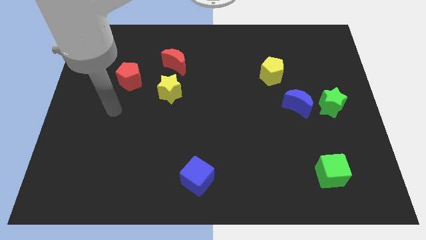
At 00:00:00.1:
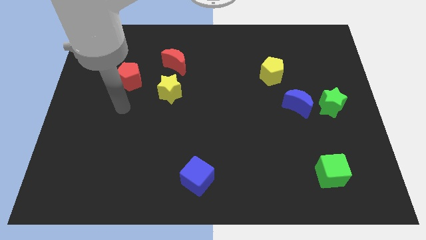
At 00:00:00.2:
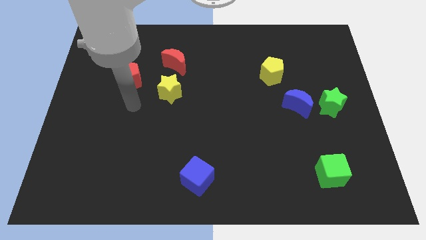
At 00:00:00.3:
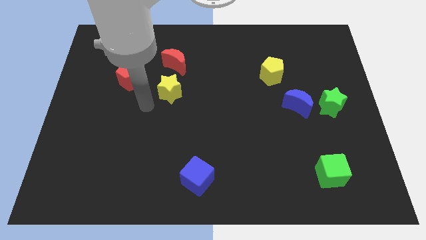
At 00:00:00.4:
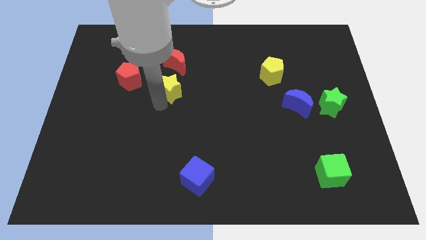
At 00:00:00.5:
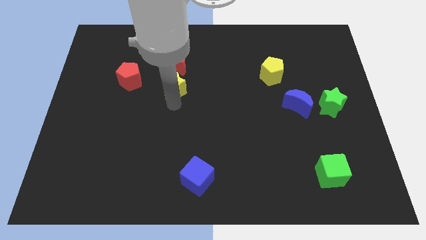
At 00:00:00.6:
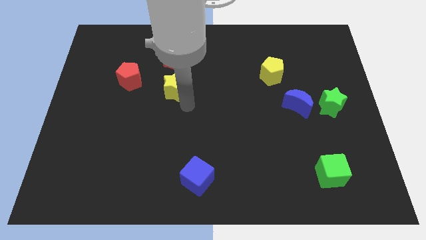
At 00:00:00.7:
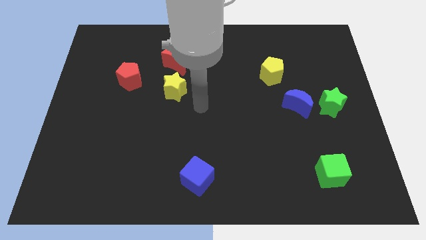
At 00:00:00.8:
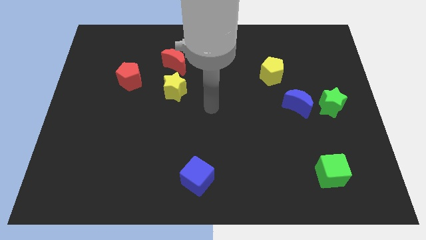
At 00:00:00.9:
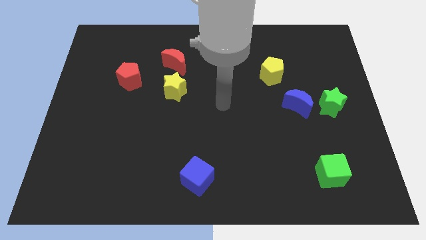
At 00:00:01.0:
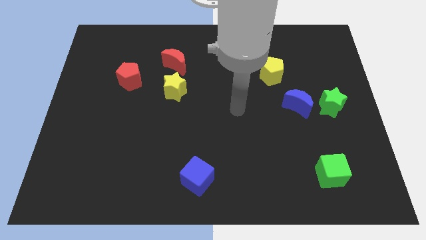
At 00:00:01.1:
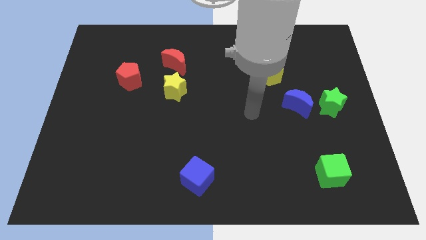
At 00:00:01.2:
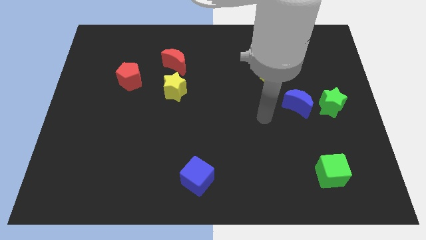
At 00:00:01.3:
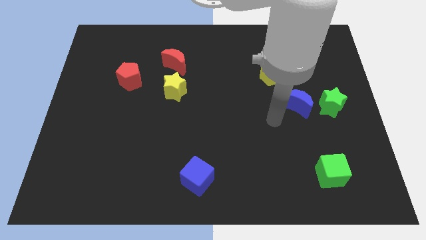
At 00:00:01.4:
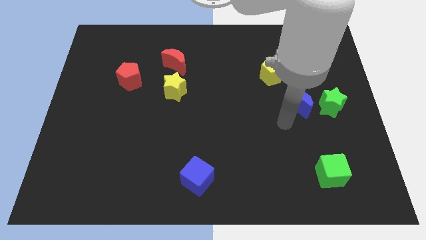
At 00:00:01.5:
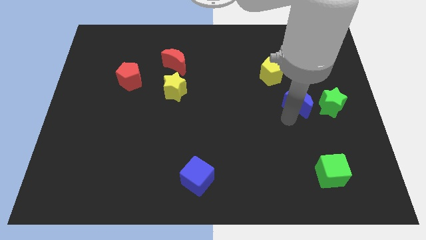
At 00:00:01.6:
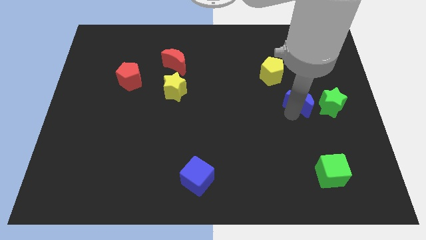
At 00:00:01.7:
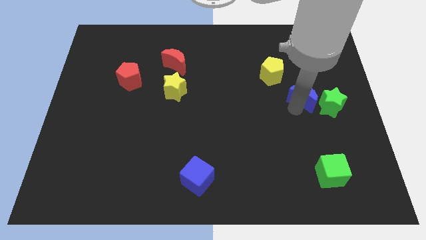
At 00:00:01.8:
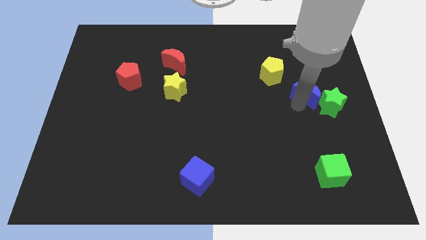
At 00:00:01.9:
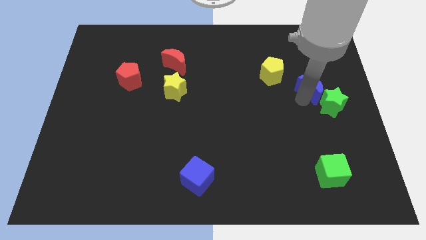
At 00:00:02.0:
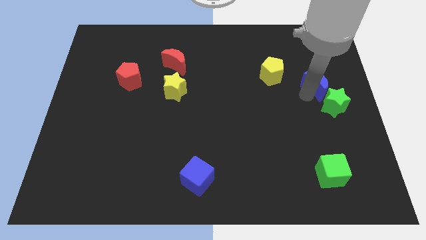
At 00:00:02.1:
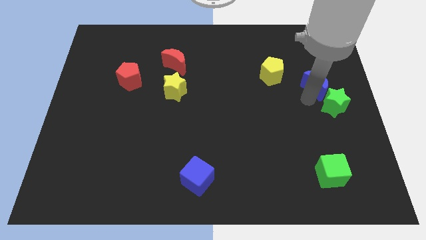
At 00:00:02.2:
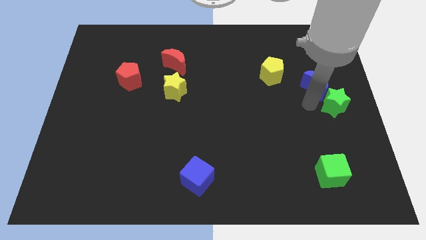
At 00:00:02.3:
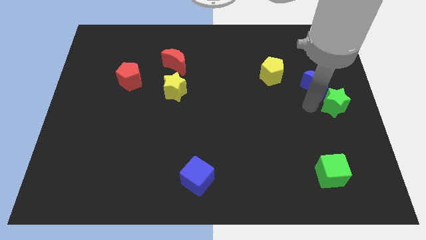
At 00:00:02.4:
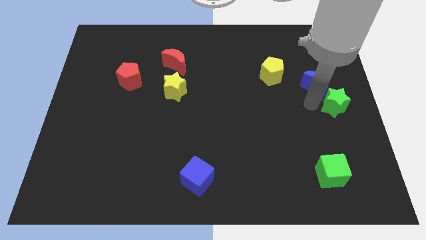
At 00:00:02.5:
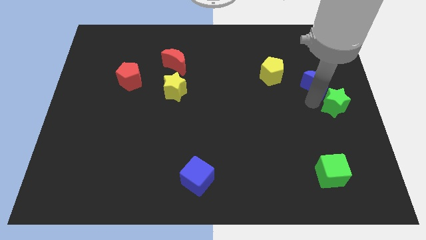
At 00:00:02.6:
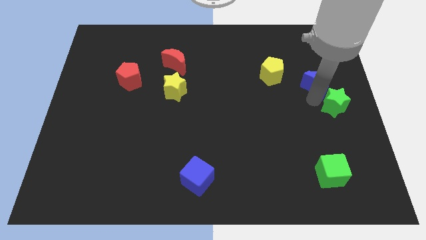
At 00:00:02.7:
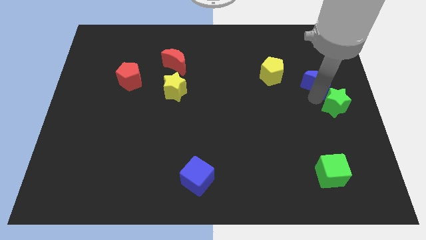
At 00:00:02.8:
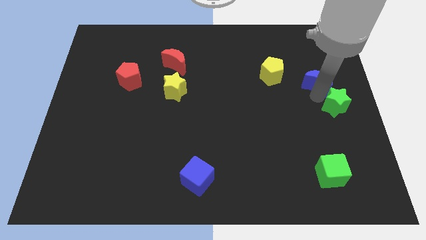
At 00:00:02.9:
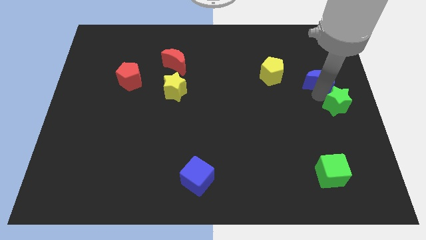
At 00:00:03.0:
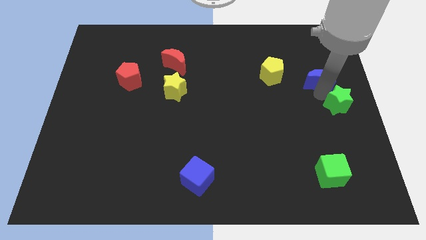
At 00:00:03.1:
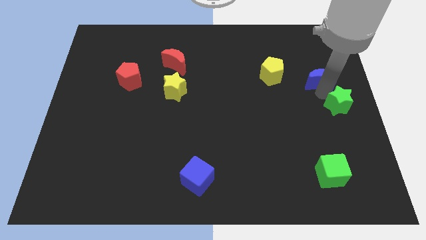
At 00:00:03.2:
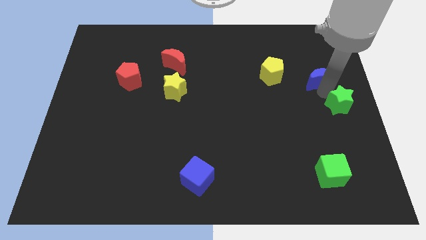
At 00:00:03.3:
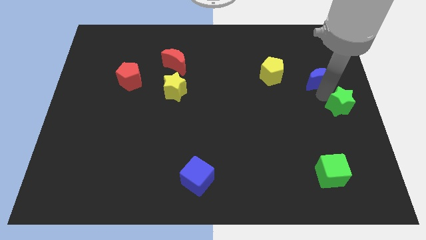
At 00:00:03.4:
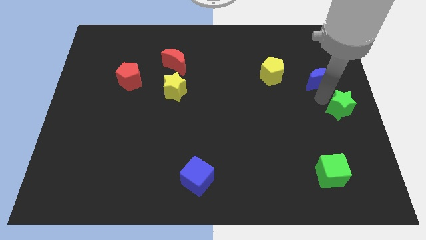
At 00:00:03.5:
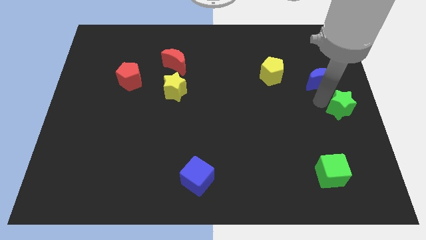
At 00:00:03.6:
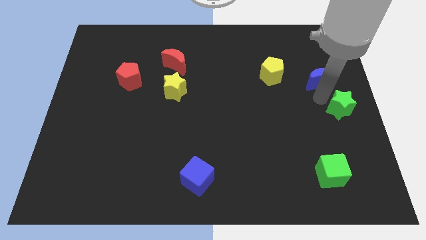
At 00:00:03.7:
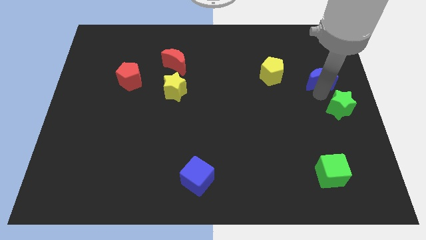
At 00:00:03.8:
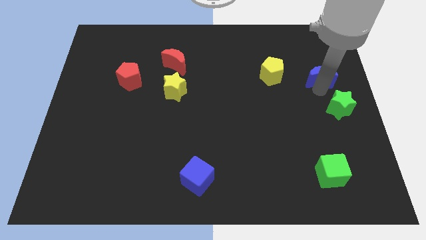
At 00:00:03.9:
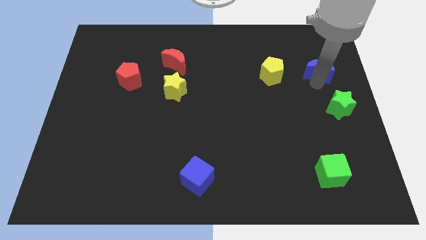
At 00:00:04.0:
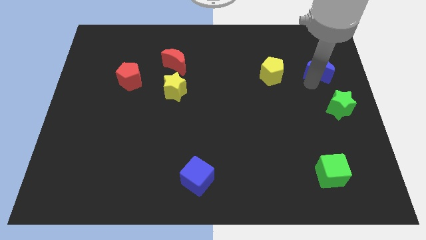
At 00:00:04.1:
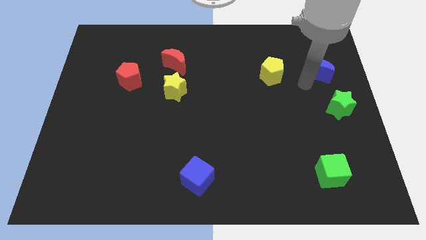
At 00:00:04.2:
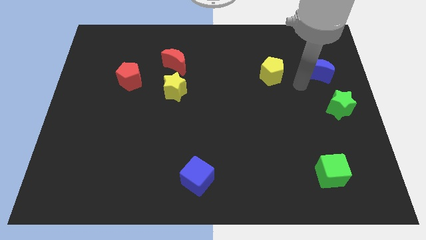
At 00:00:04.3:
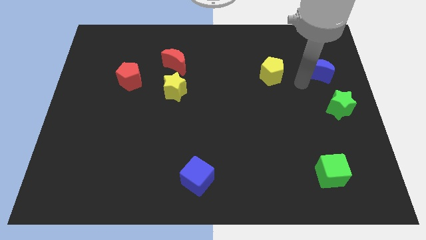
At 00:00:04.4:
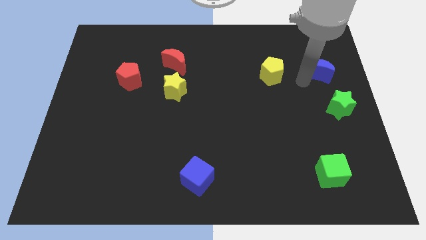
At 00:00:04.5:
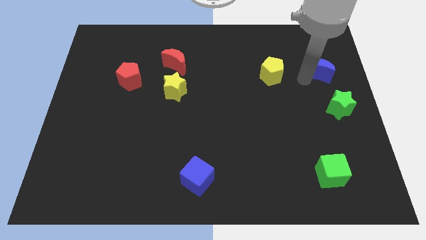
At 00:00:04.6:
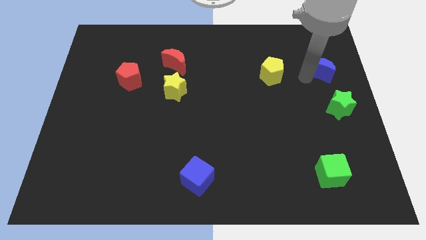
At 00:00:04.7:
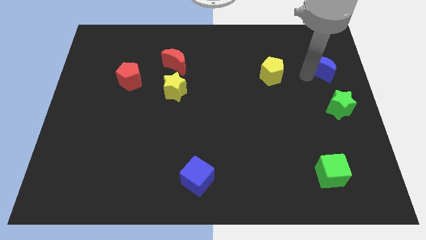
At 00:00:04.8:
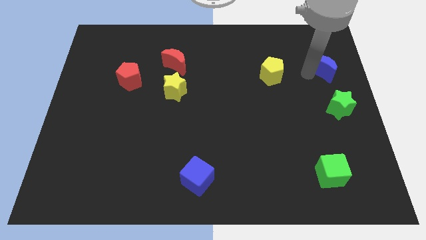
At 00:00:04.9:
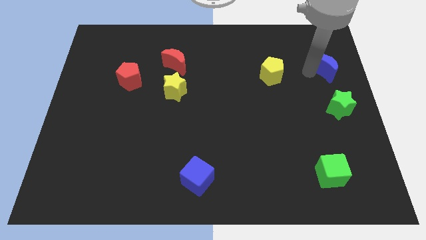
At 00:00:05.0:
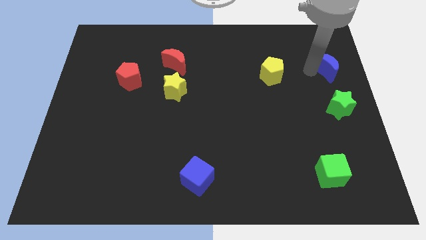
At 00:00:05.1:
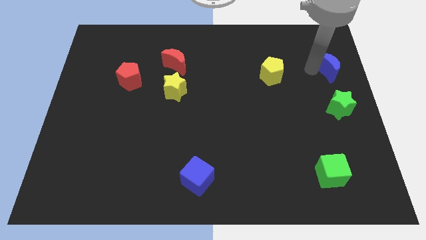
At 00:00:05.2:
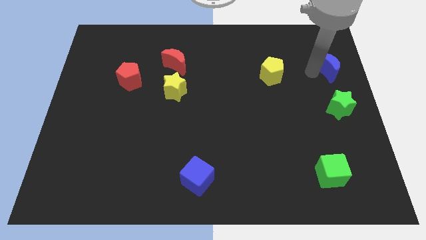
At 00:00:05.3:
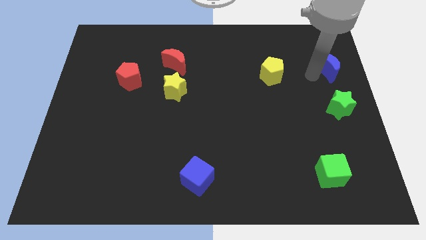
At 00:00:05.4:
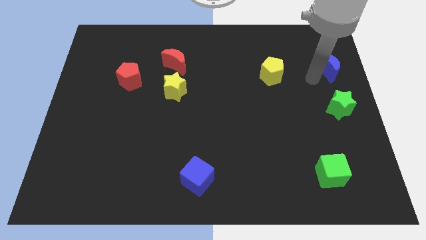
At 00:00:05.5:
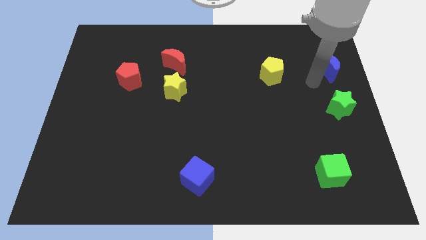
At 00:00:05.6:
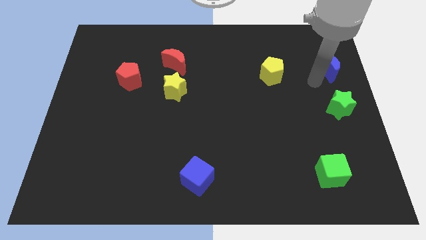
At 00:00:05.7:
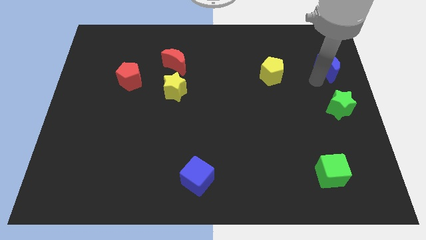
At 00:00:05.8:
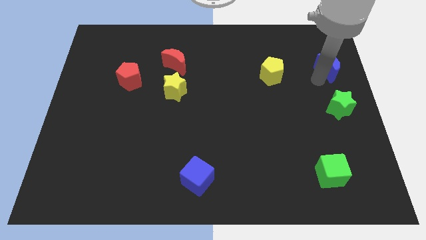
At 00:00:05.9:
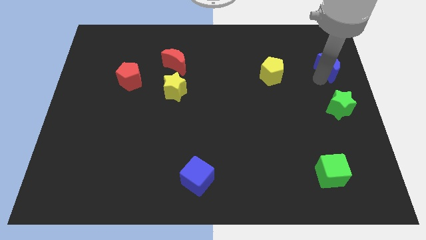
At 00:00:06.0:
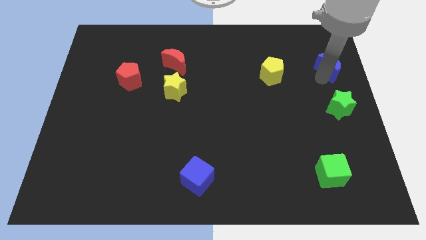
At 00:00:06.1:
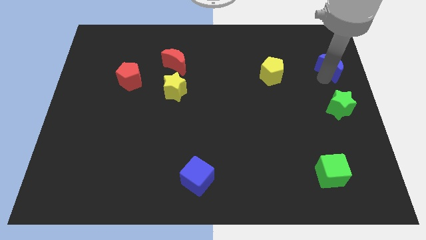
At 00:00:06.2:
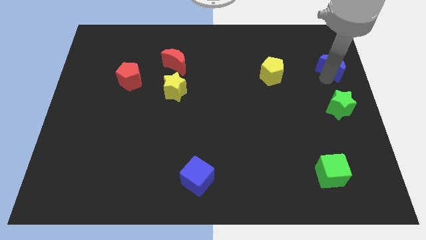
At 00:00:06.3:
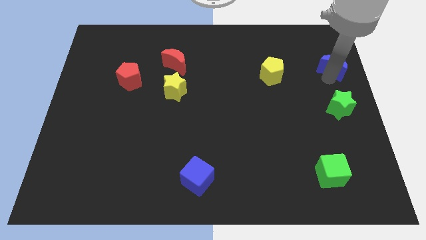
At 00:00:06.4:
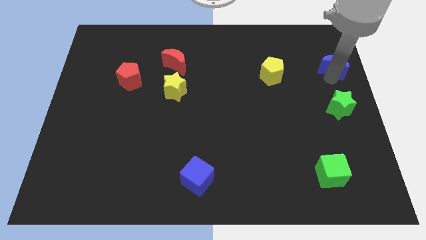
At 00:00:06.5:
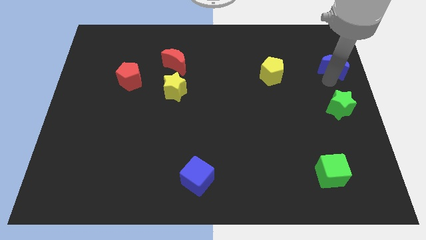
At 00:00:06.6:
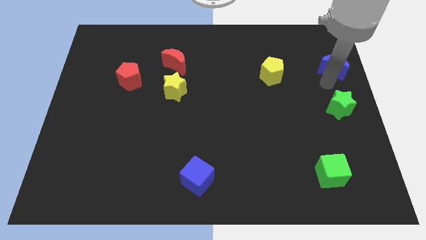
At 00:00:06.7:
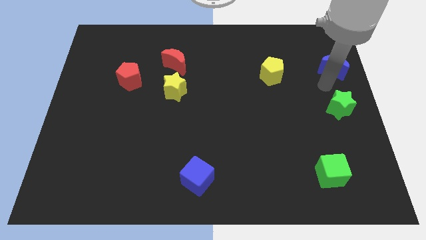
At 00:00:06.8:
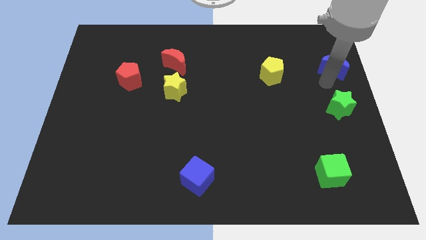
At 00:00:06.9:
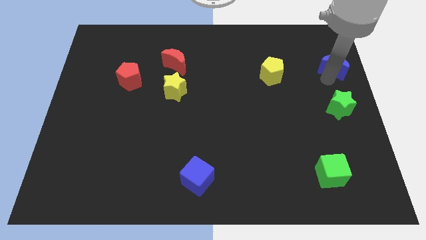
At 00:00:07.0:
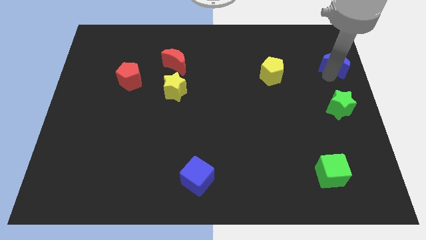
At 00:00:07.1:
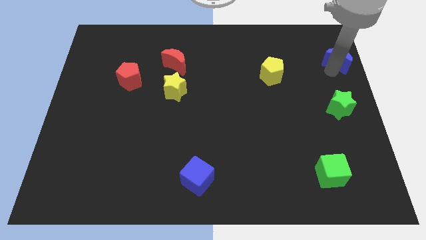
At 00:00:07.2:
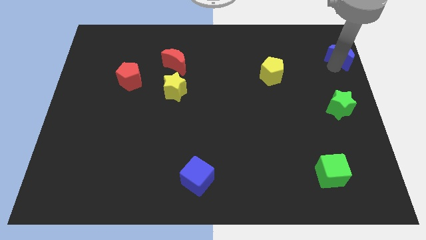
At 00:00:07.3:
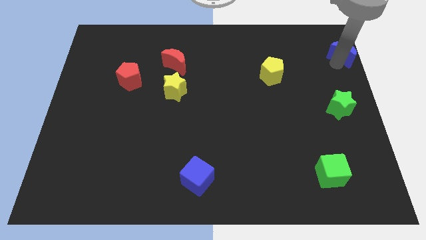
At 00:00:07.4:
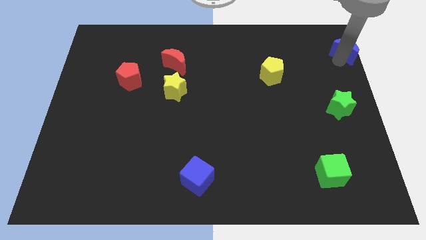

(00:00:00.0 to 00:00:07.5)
move the blue moon to the top right corner
